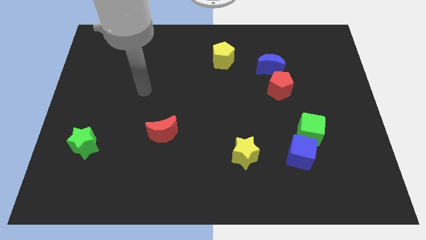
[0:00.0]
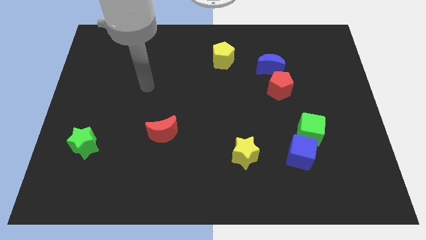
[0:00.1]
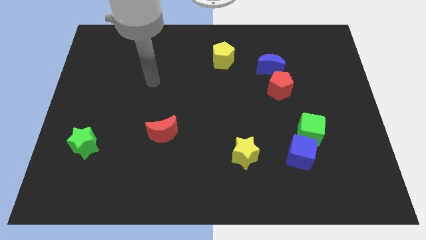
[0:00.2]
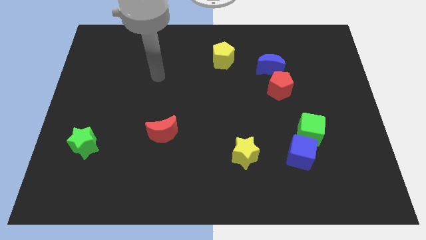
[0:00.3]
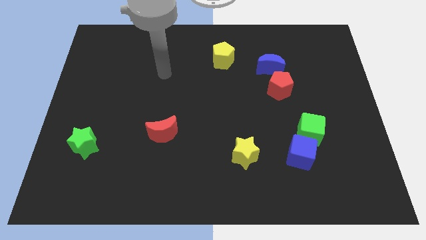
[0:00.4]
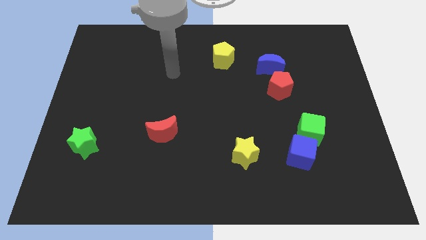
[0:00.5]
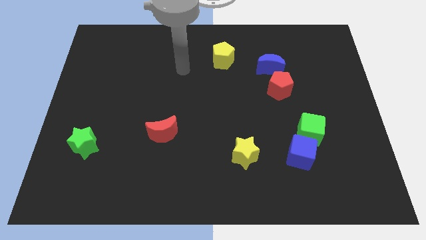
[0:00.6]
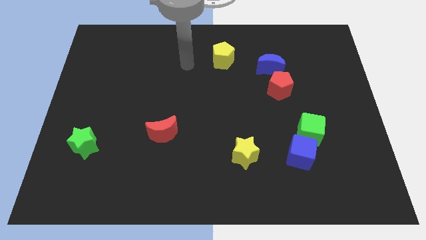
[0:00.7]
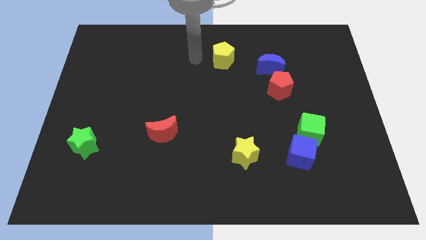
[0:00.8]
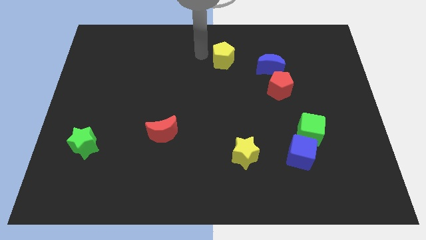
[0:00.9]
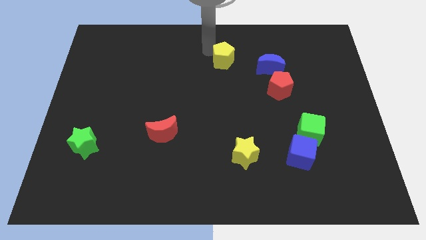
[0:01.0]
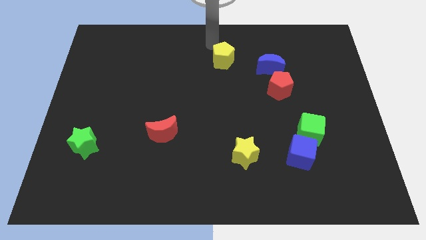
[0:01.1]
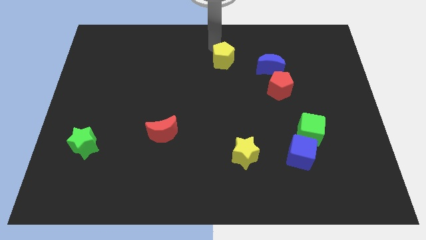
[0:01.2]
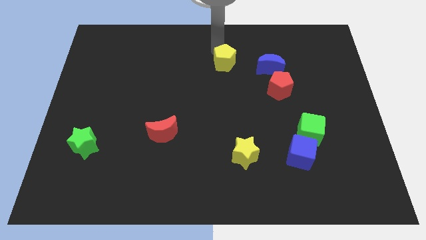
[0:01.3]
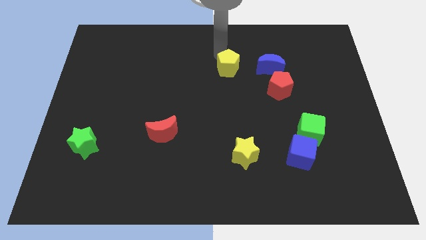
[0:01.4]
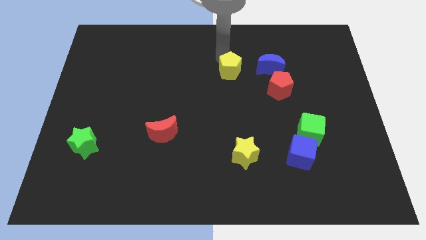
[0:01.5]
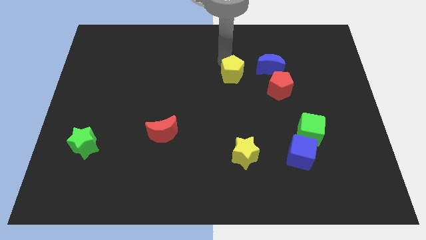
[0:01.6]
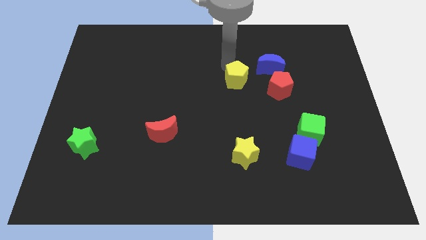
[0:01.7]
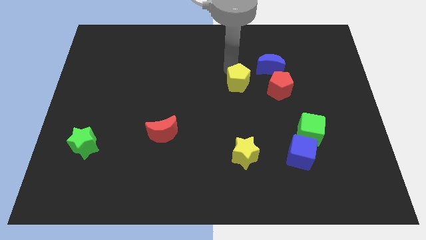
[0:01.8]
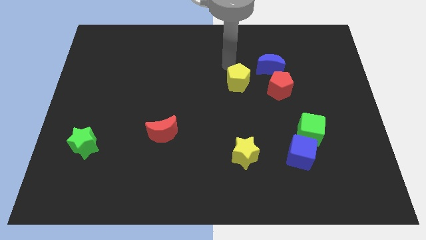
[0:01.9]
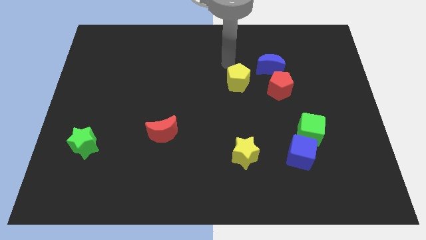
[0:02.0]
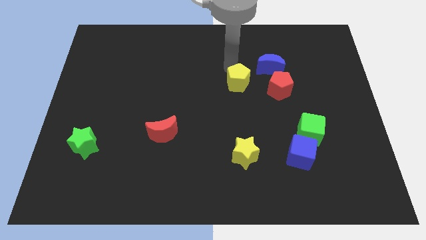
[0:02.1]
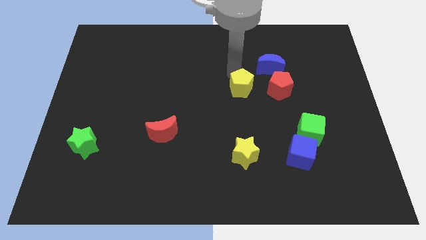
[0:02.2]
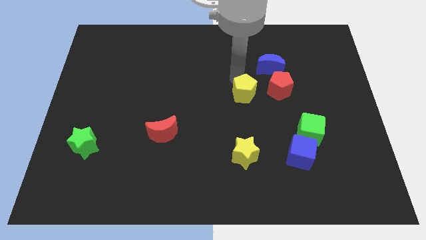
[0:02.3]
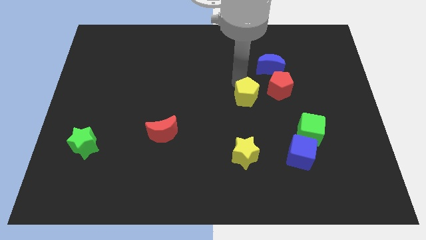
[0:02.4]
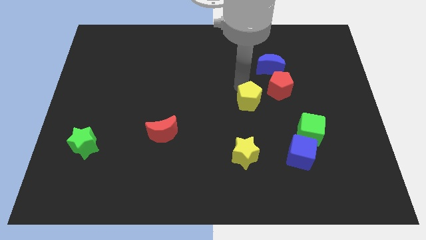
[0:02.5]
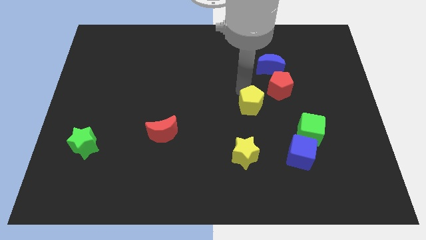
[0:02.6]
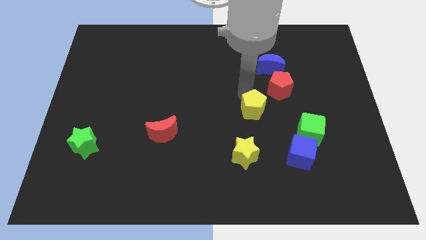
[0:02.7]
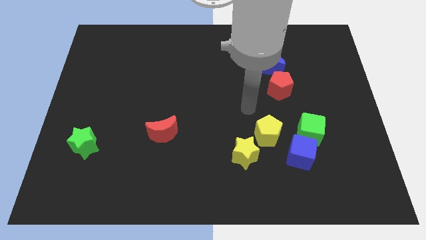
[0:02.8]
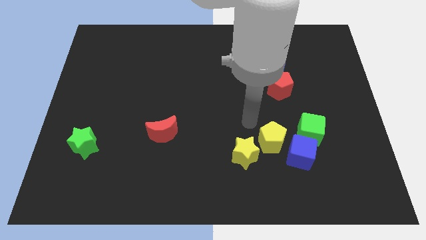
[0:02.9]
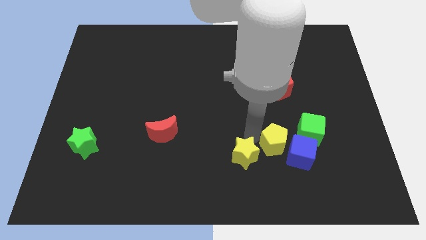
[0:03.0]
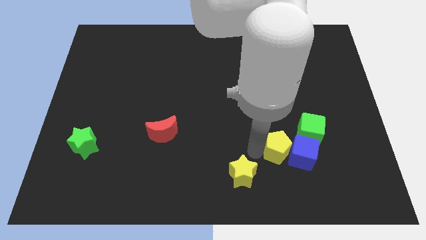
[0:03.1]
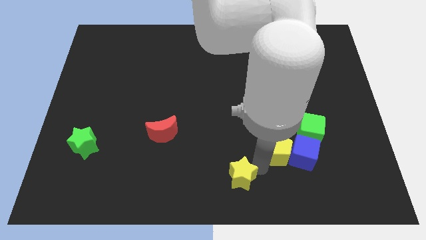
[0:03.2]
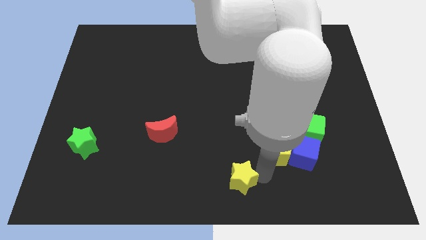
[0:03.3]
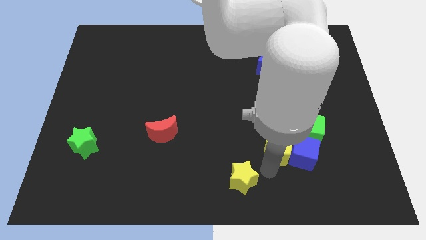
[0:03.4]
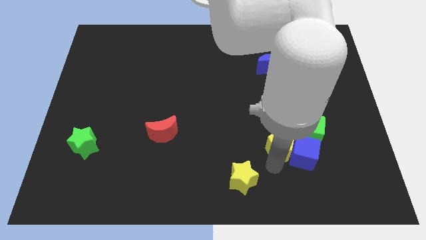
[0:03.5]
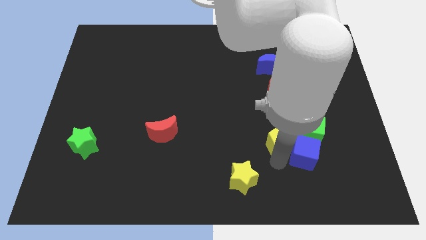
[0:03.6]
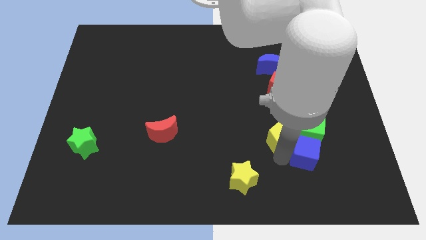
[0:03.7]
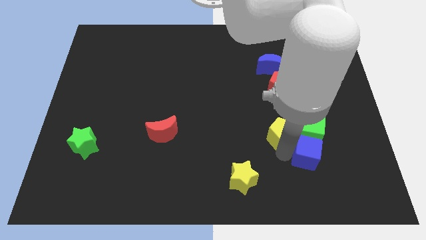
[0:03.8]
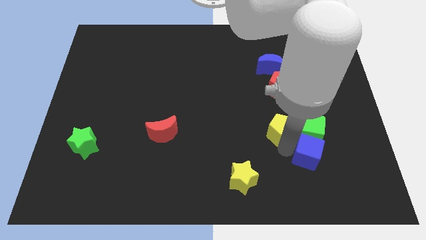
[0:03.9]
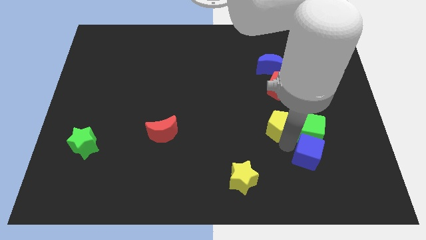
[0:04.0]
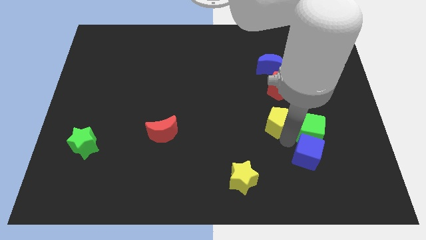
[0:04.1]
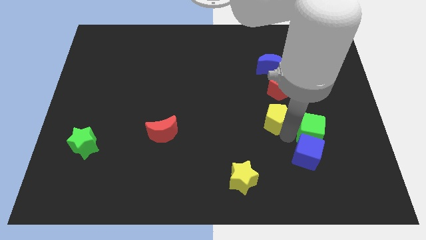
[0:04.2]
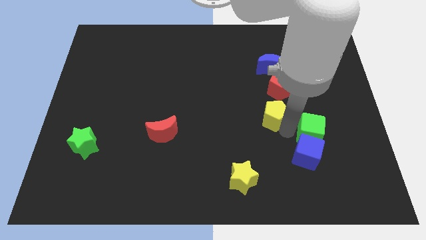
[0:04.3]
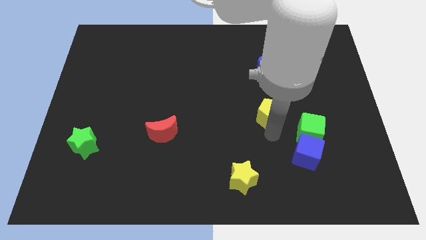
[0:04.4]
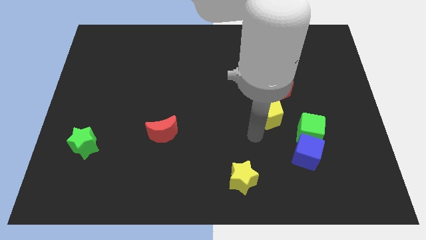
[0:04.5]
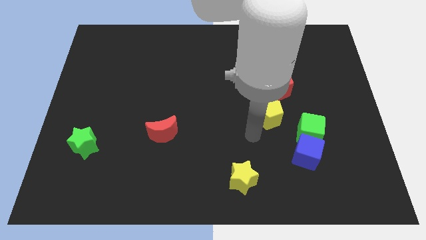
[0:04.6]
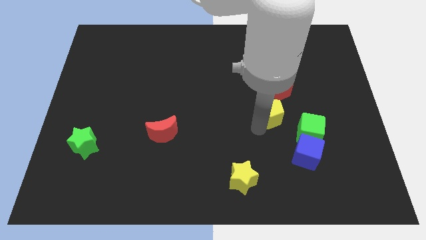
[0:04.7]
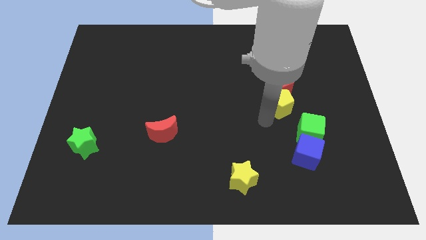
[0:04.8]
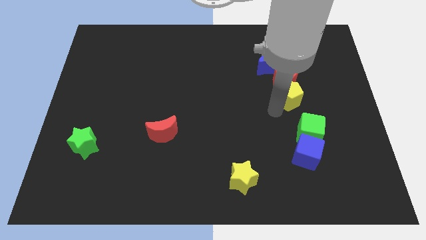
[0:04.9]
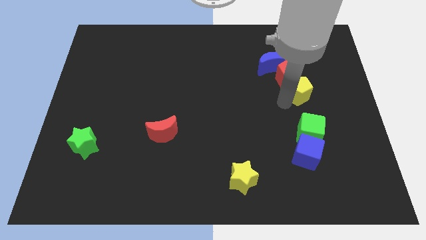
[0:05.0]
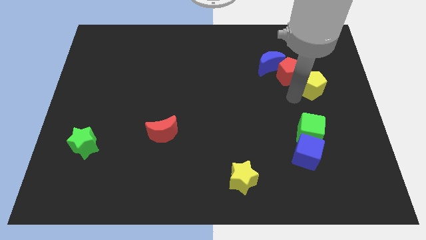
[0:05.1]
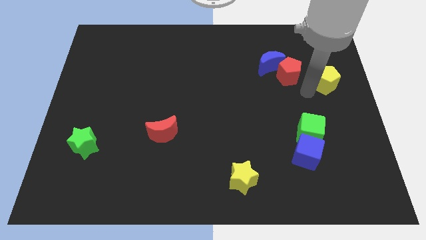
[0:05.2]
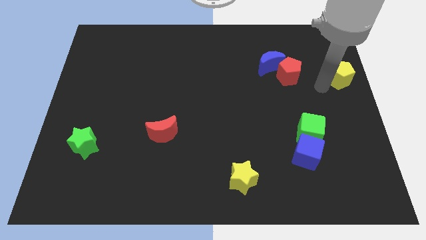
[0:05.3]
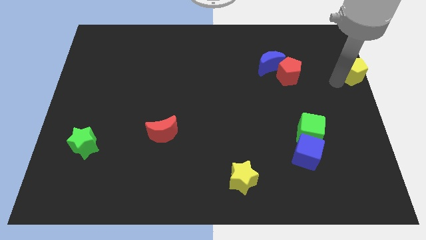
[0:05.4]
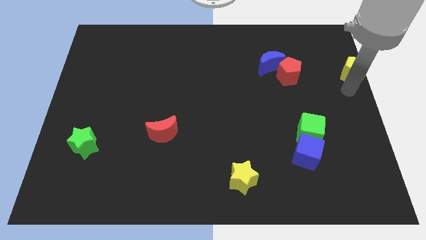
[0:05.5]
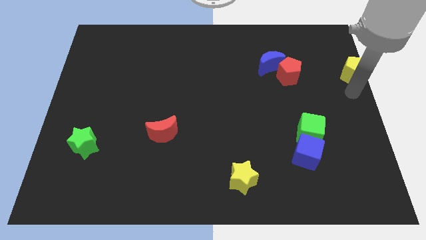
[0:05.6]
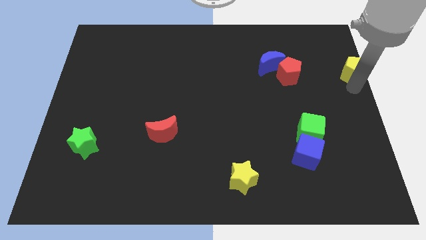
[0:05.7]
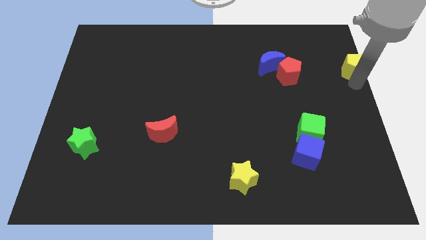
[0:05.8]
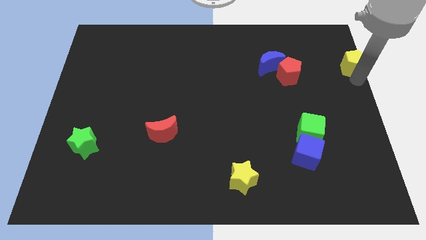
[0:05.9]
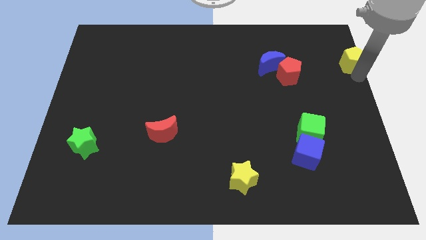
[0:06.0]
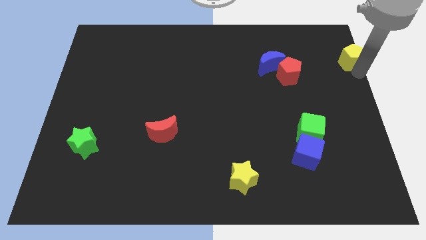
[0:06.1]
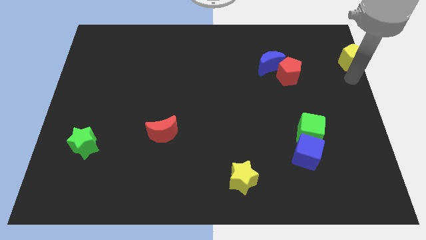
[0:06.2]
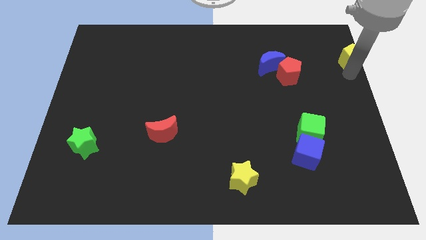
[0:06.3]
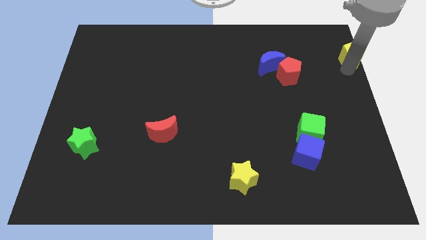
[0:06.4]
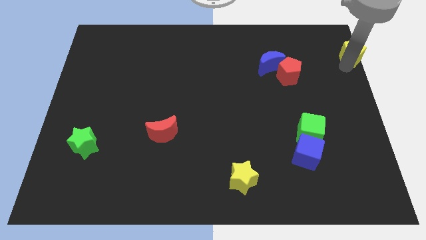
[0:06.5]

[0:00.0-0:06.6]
move the yellow pentagon to the top right of the board
